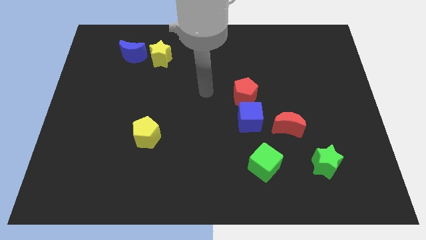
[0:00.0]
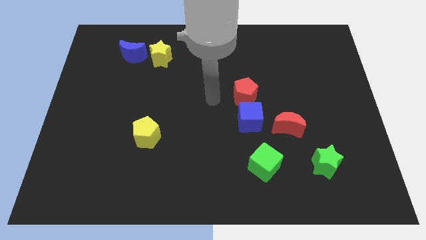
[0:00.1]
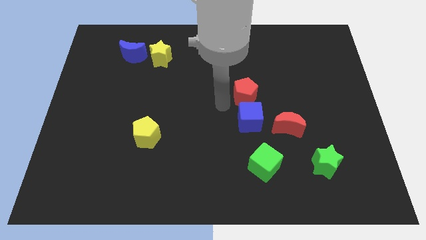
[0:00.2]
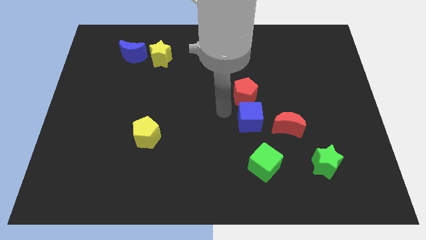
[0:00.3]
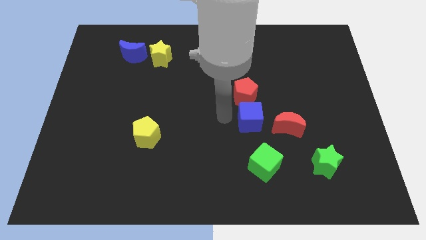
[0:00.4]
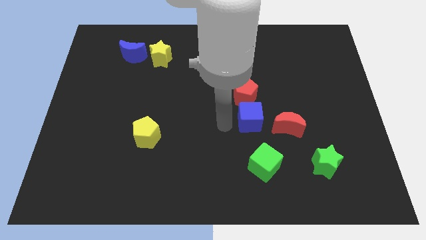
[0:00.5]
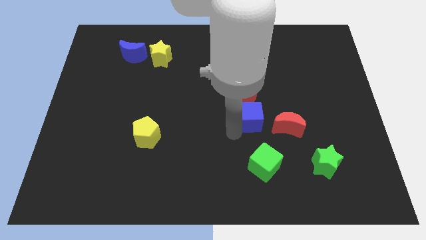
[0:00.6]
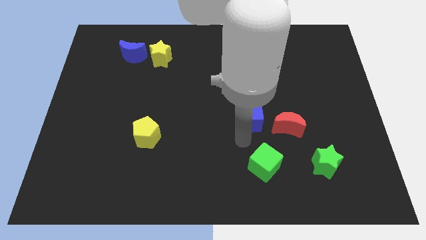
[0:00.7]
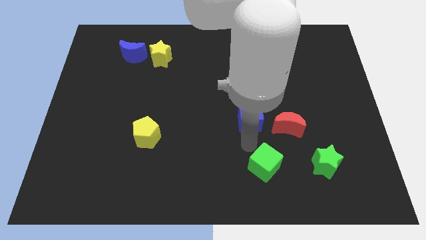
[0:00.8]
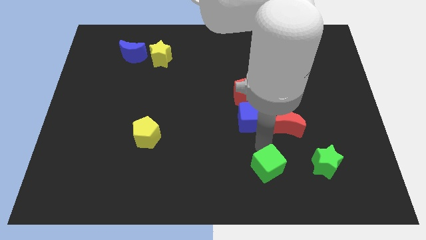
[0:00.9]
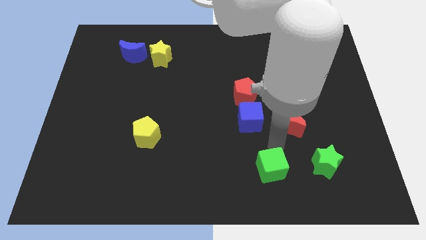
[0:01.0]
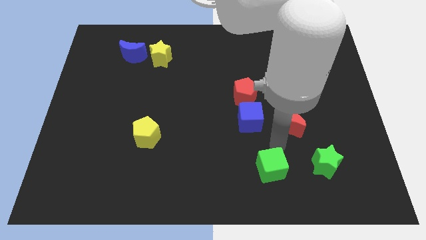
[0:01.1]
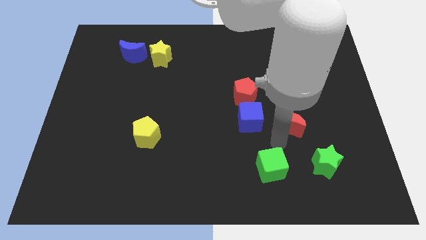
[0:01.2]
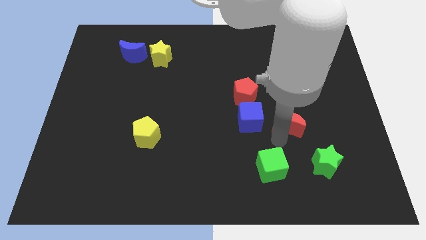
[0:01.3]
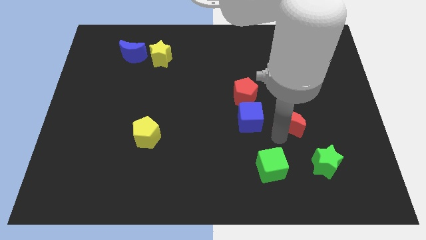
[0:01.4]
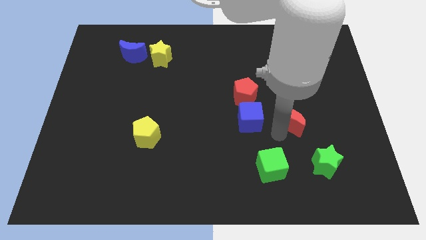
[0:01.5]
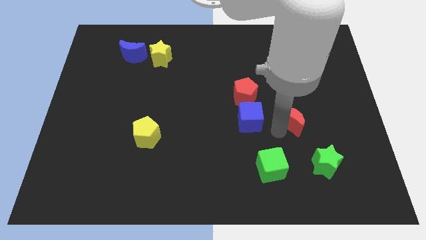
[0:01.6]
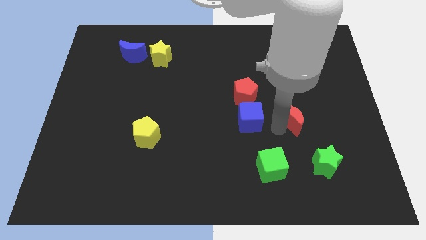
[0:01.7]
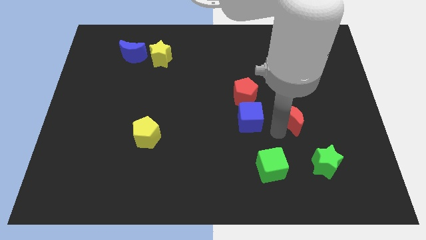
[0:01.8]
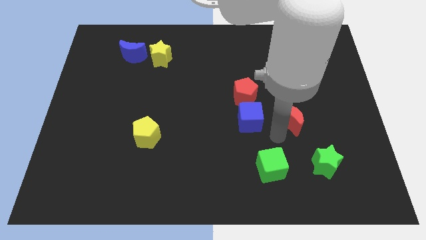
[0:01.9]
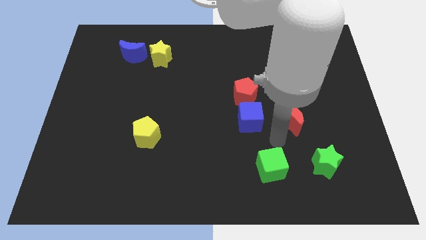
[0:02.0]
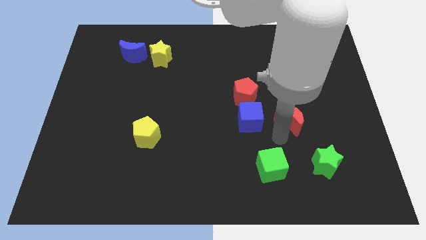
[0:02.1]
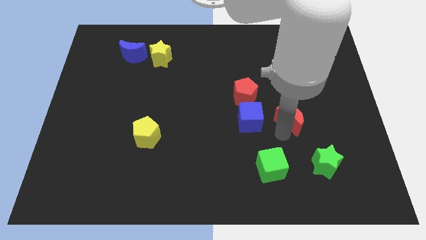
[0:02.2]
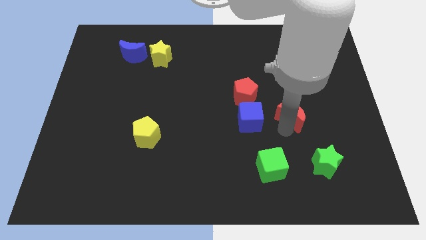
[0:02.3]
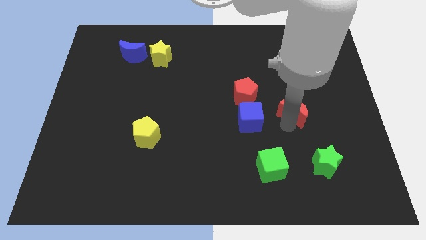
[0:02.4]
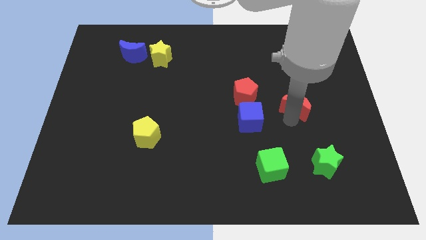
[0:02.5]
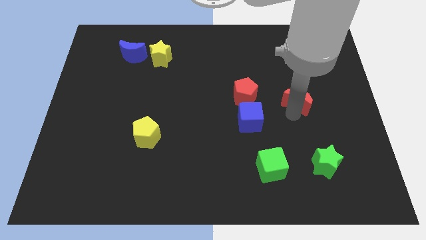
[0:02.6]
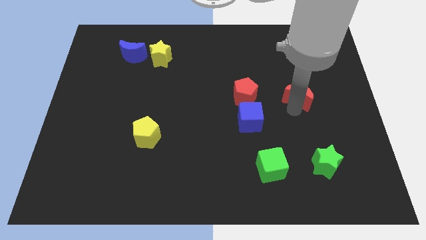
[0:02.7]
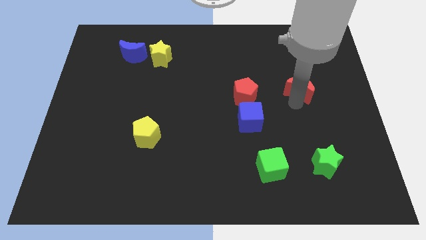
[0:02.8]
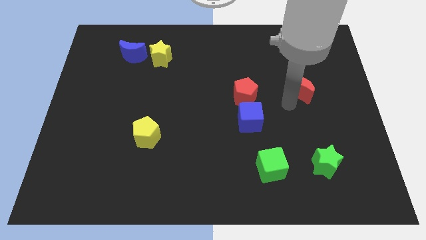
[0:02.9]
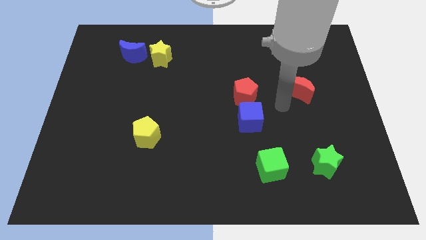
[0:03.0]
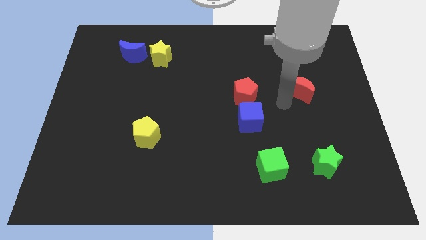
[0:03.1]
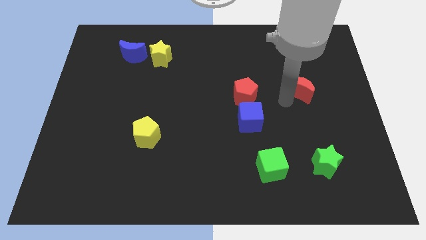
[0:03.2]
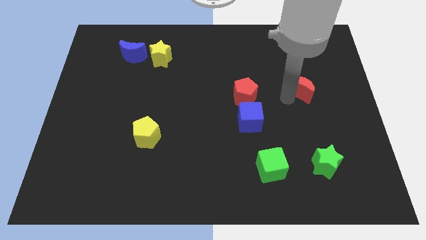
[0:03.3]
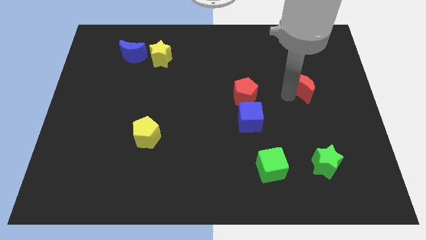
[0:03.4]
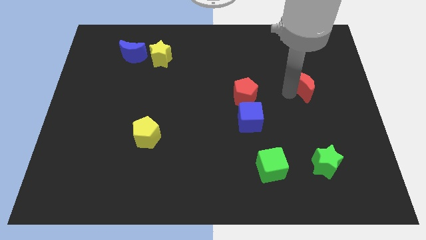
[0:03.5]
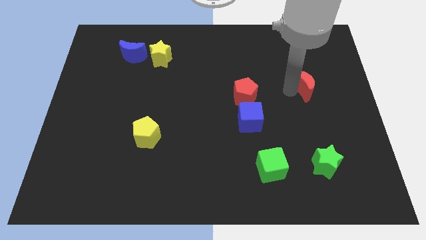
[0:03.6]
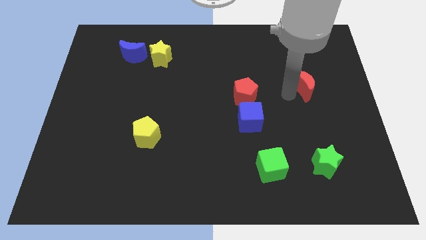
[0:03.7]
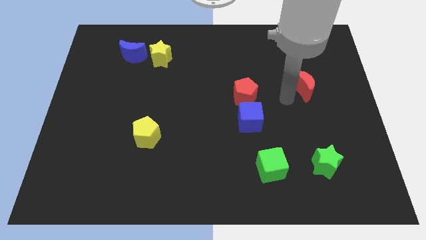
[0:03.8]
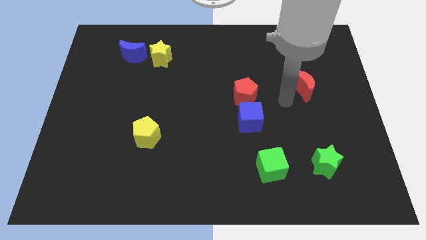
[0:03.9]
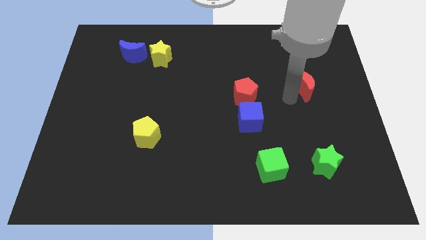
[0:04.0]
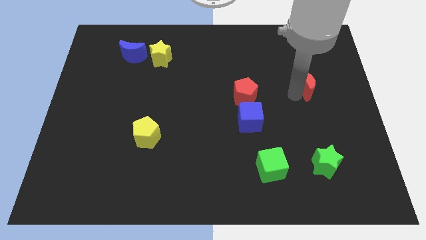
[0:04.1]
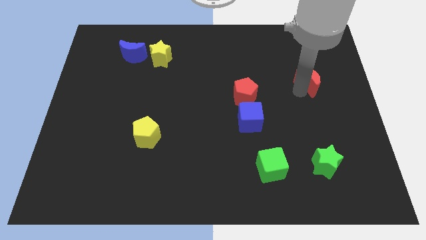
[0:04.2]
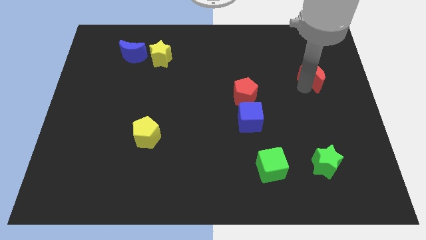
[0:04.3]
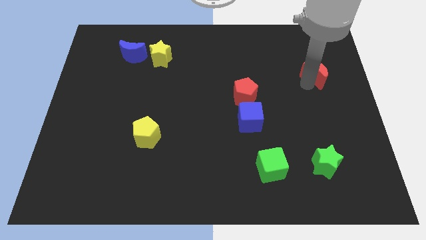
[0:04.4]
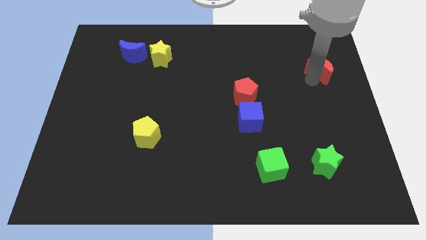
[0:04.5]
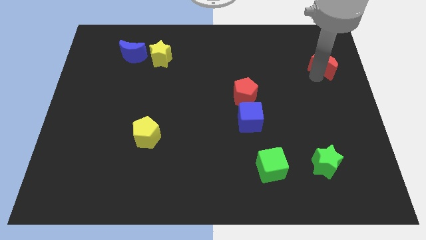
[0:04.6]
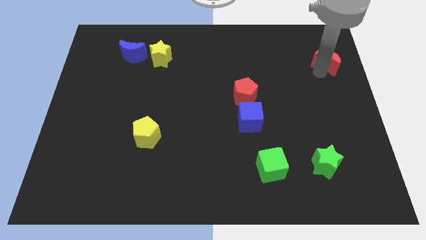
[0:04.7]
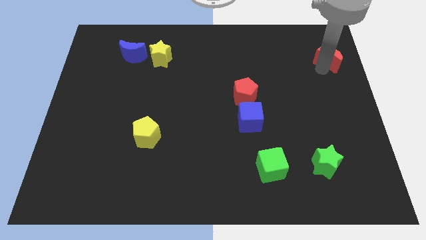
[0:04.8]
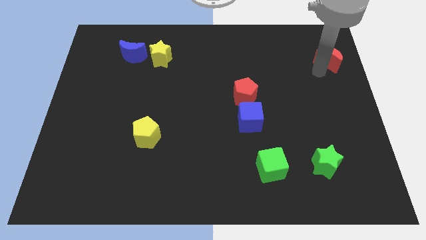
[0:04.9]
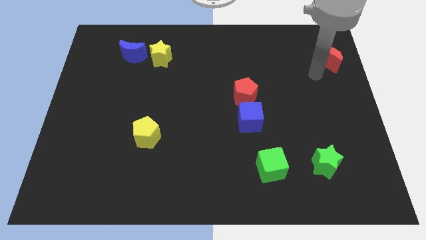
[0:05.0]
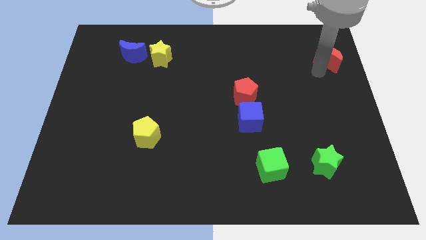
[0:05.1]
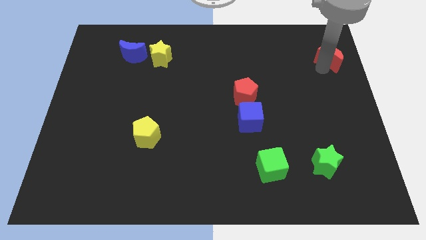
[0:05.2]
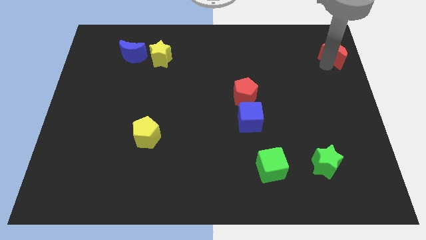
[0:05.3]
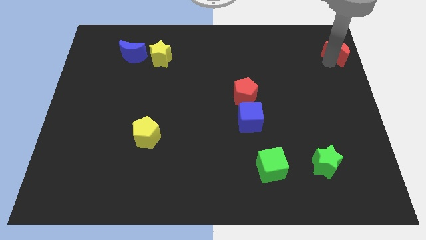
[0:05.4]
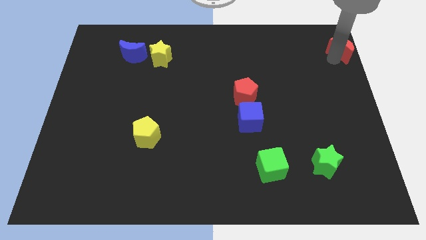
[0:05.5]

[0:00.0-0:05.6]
slide the red moon to the upper right corner
